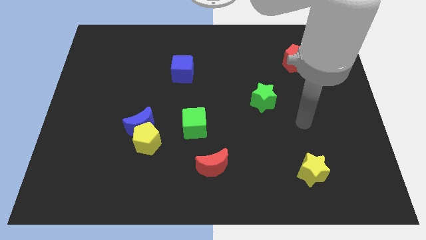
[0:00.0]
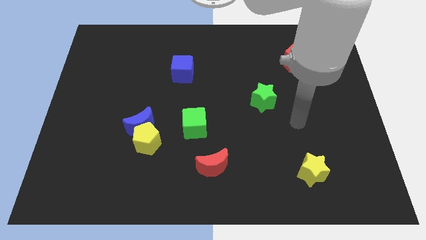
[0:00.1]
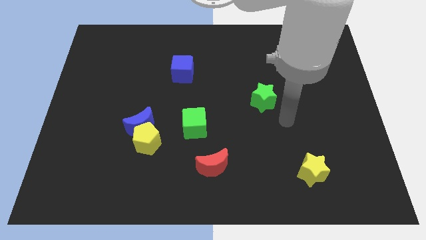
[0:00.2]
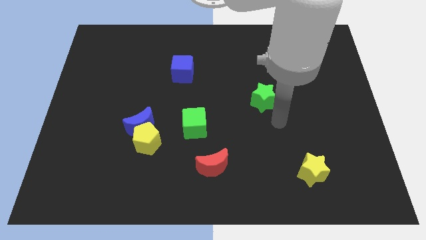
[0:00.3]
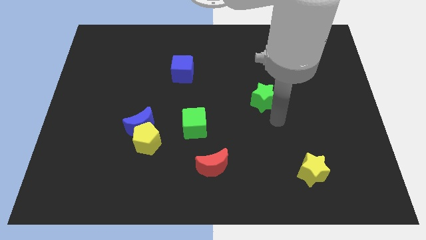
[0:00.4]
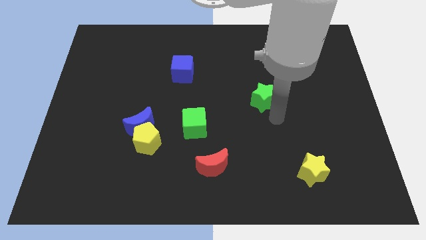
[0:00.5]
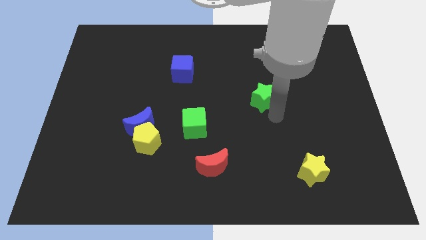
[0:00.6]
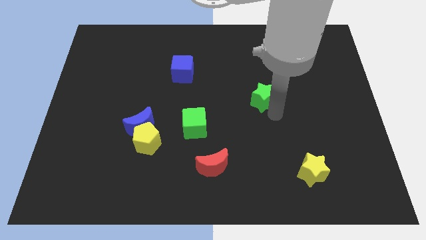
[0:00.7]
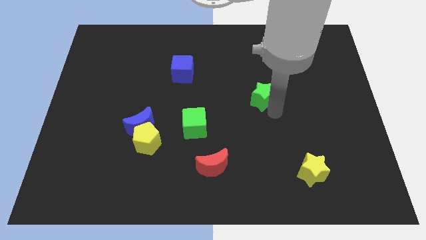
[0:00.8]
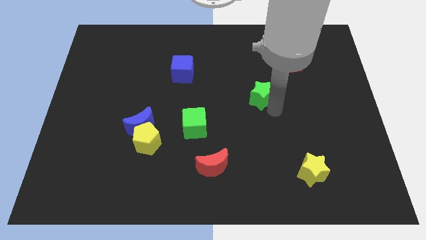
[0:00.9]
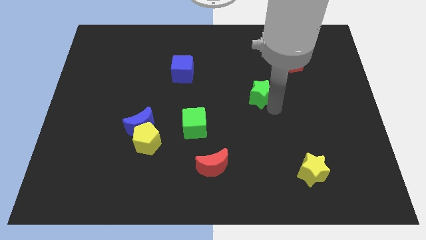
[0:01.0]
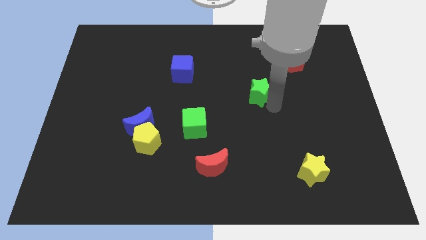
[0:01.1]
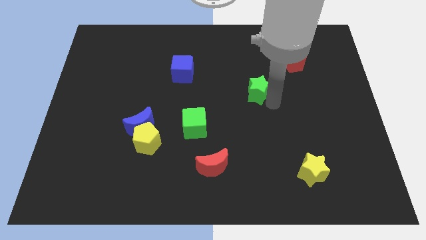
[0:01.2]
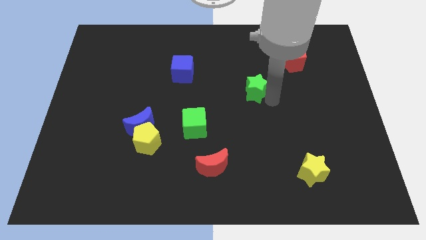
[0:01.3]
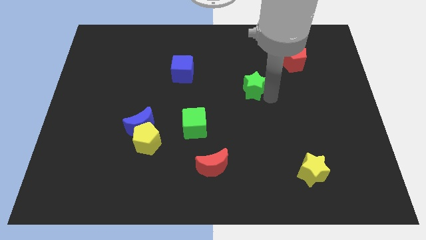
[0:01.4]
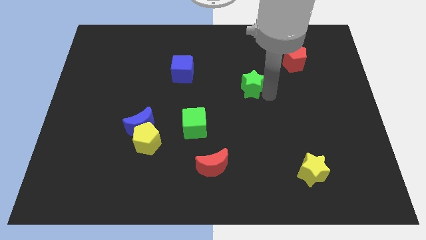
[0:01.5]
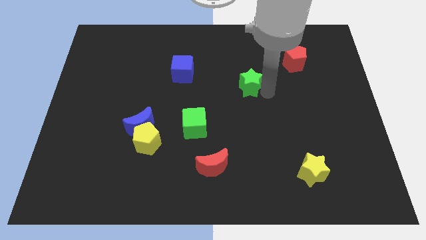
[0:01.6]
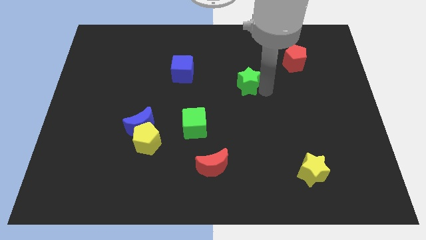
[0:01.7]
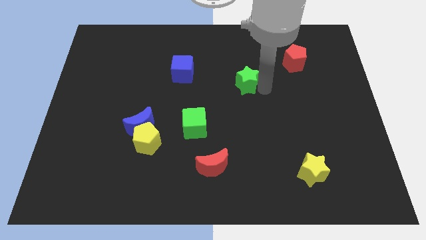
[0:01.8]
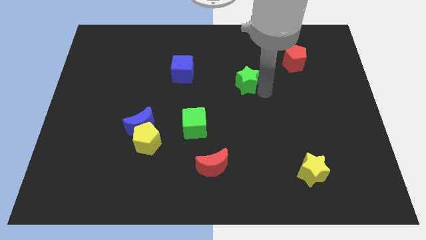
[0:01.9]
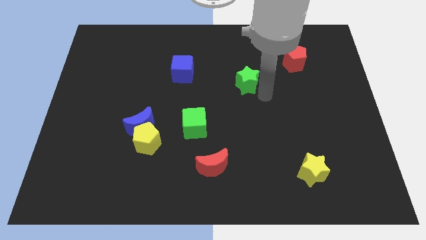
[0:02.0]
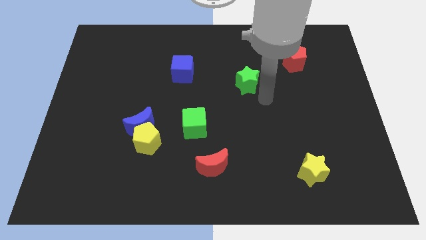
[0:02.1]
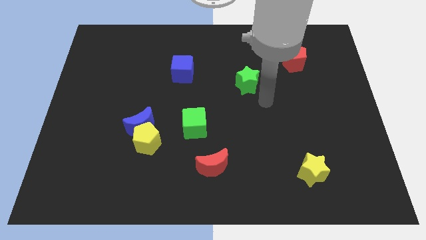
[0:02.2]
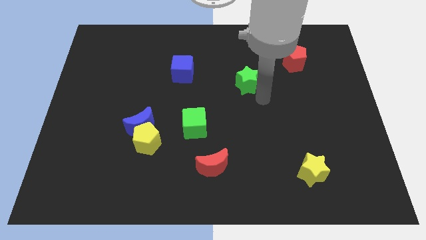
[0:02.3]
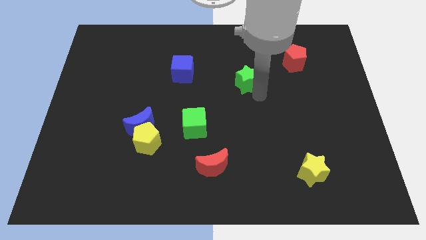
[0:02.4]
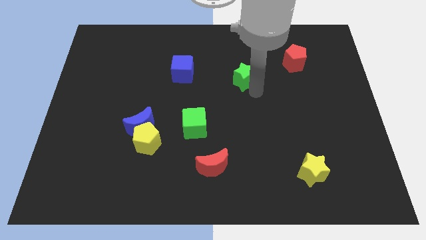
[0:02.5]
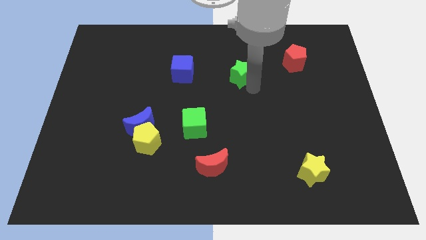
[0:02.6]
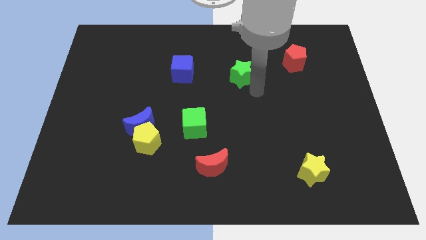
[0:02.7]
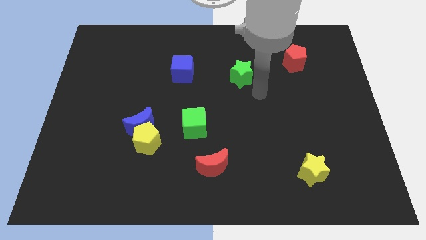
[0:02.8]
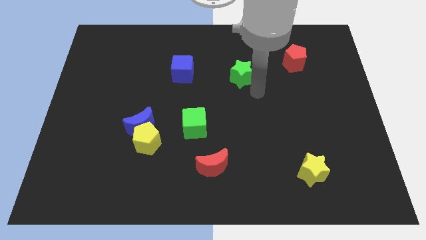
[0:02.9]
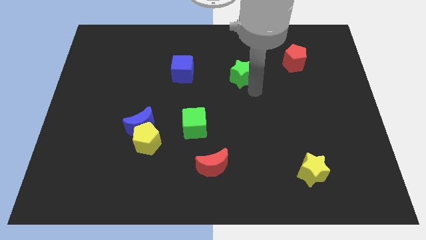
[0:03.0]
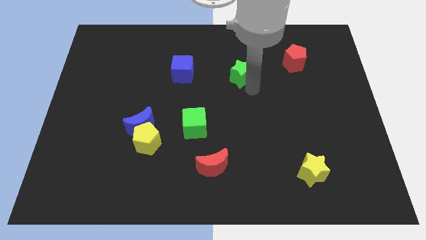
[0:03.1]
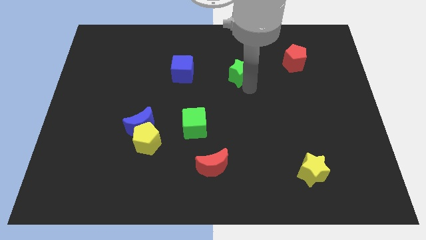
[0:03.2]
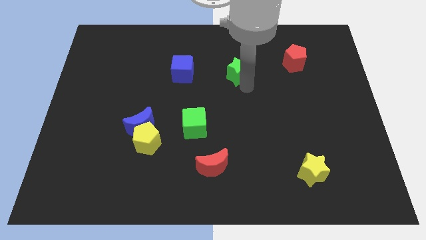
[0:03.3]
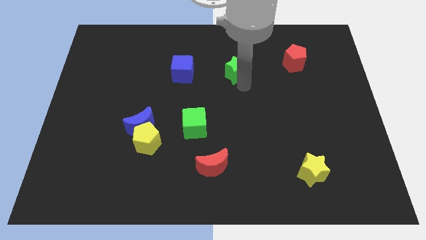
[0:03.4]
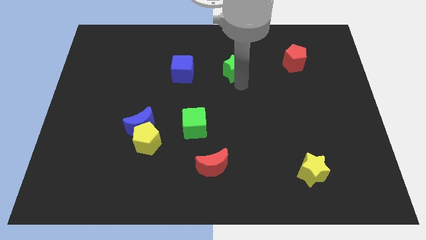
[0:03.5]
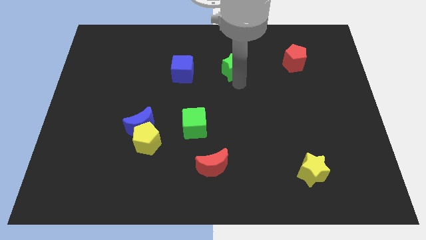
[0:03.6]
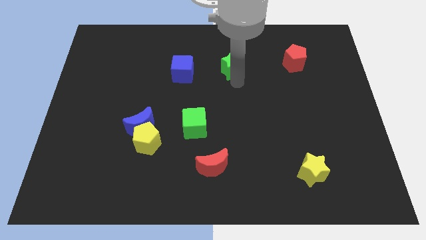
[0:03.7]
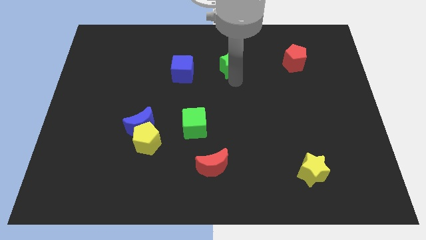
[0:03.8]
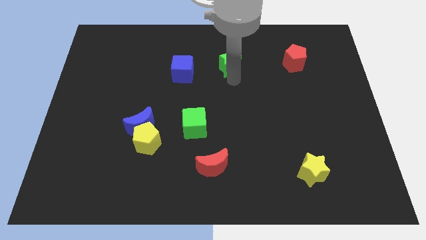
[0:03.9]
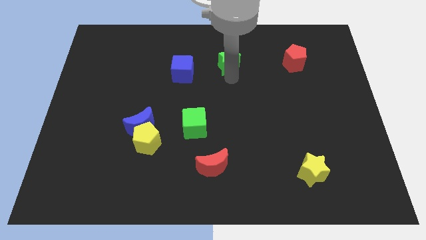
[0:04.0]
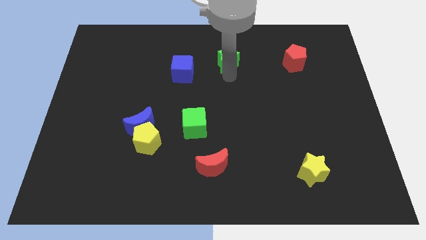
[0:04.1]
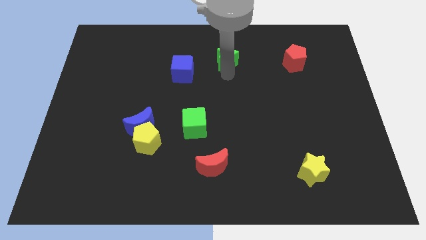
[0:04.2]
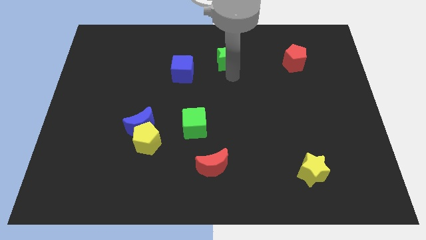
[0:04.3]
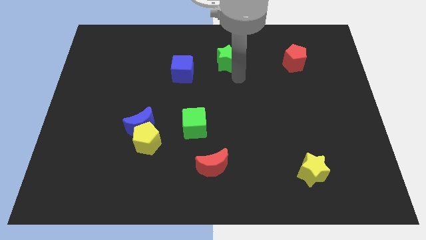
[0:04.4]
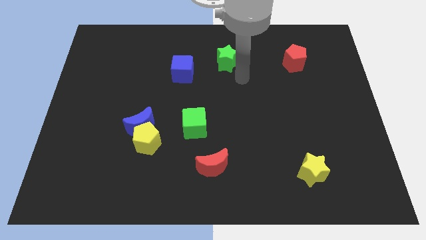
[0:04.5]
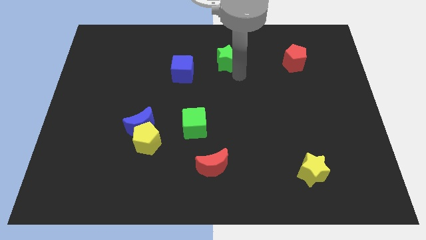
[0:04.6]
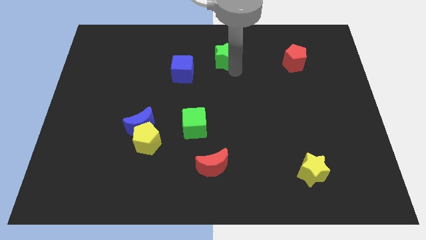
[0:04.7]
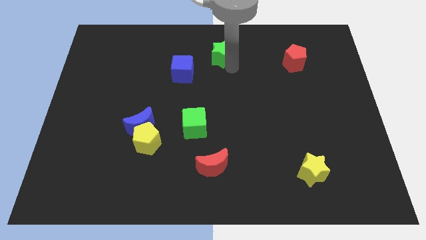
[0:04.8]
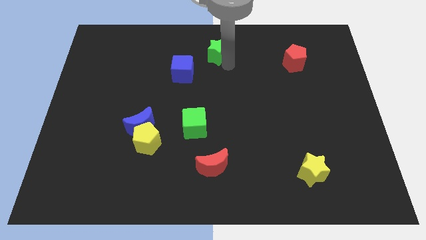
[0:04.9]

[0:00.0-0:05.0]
move the green star to the top

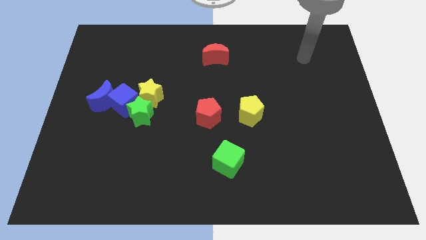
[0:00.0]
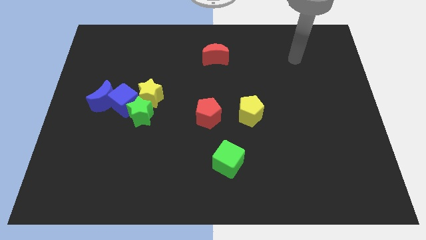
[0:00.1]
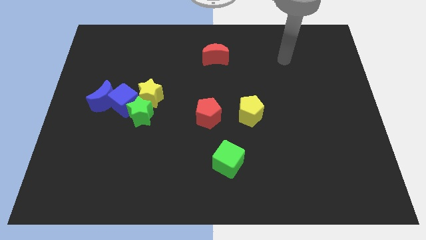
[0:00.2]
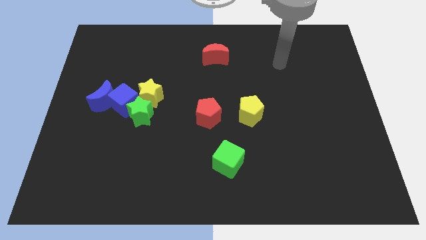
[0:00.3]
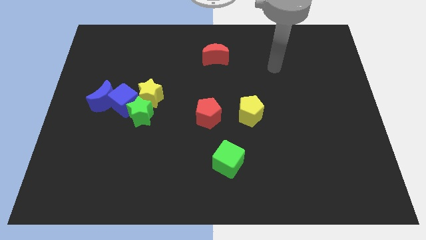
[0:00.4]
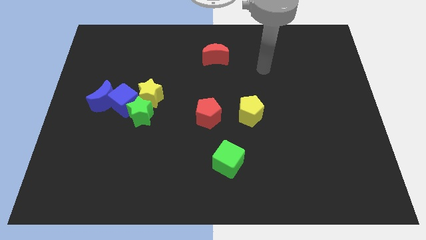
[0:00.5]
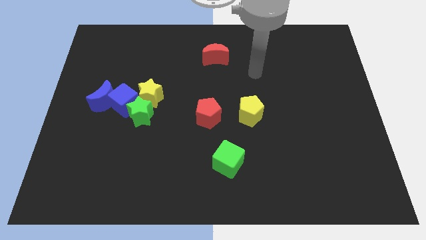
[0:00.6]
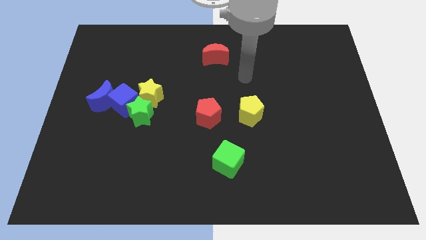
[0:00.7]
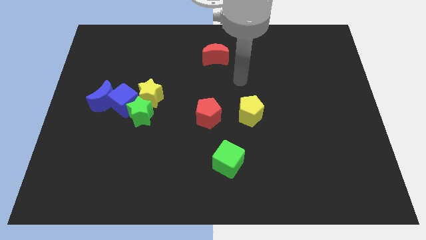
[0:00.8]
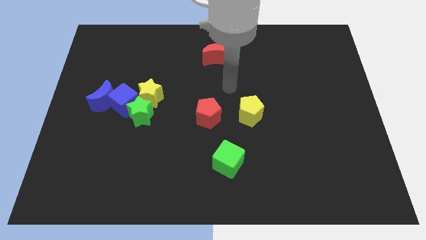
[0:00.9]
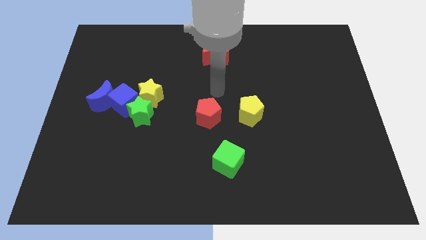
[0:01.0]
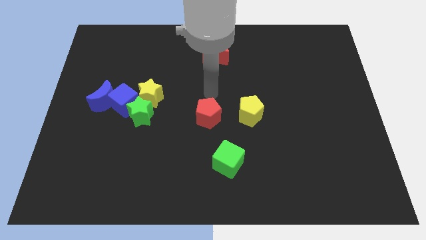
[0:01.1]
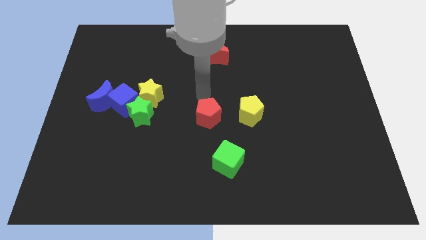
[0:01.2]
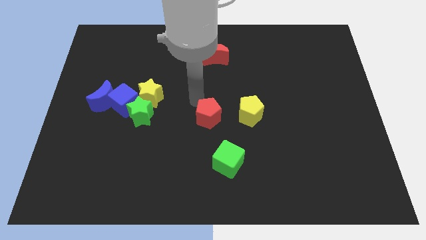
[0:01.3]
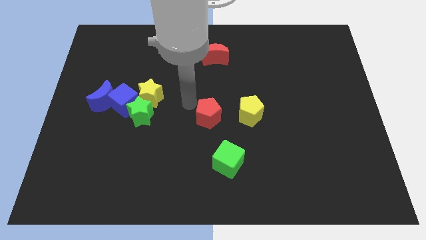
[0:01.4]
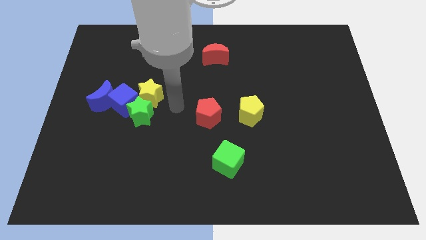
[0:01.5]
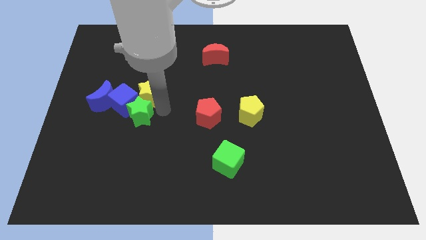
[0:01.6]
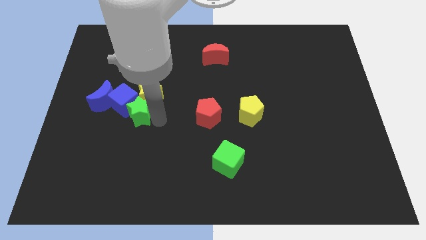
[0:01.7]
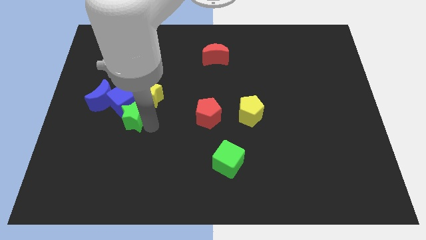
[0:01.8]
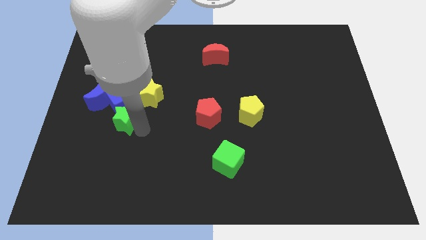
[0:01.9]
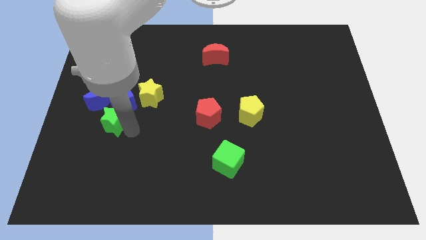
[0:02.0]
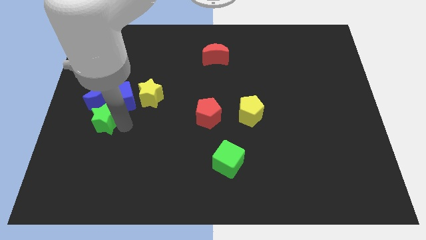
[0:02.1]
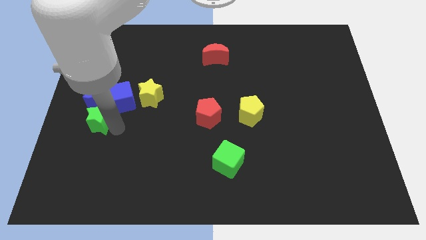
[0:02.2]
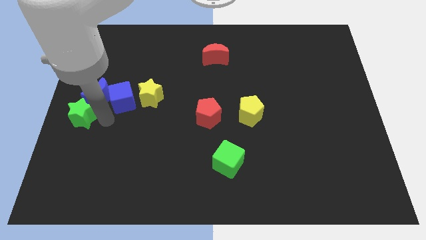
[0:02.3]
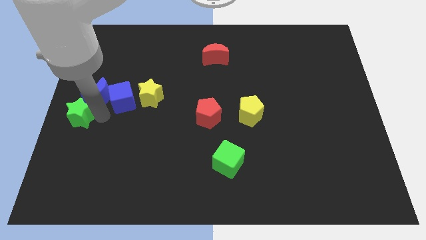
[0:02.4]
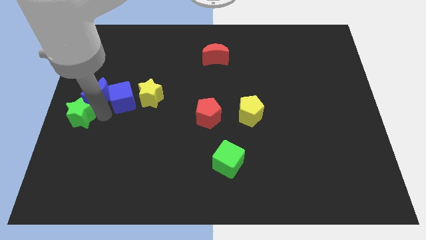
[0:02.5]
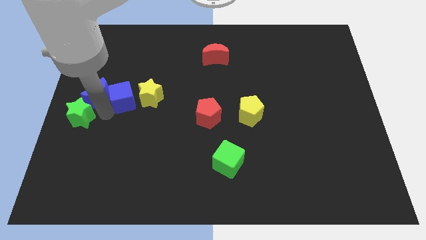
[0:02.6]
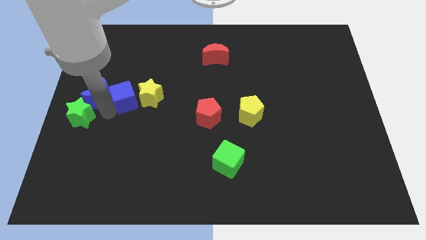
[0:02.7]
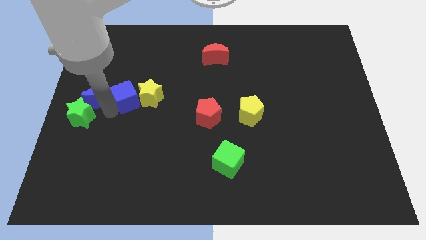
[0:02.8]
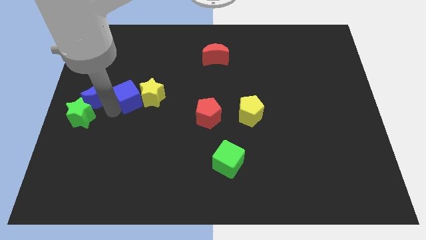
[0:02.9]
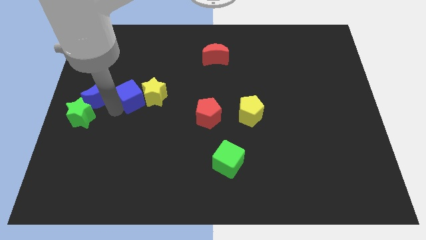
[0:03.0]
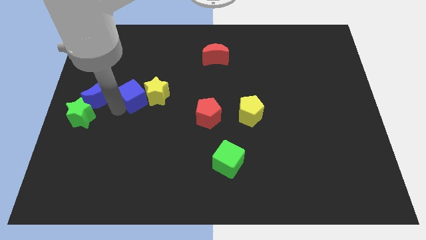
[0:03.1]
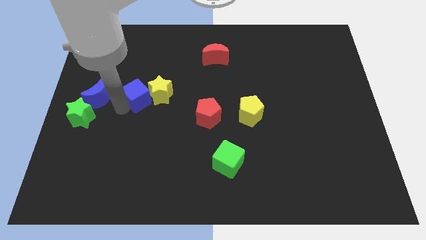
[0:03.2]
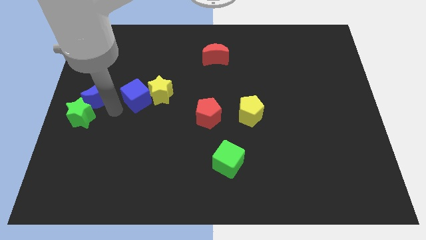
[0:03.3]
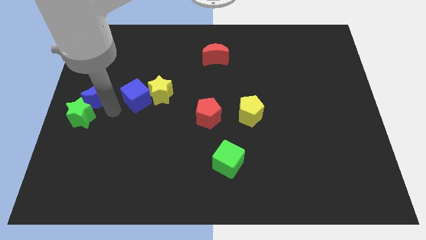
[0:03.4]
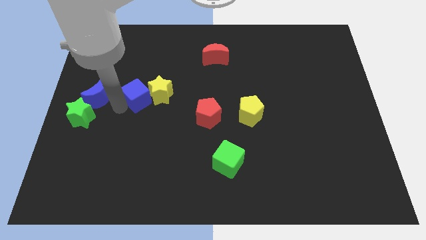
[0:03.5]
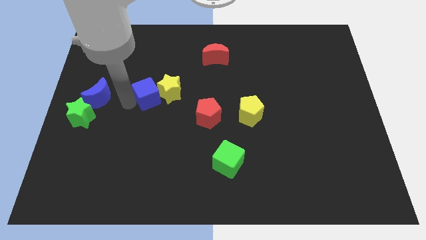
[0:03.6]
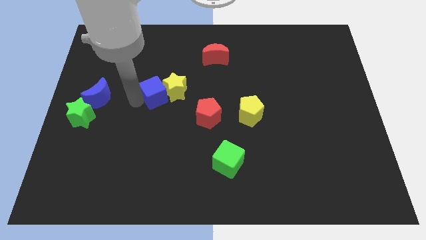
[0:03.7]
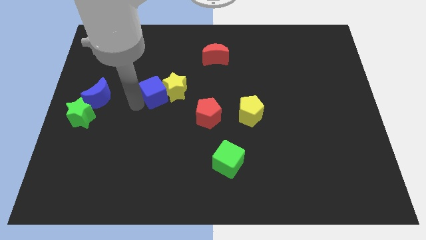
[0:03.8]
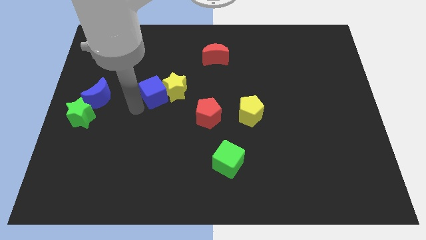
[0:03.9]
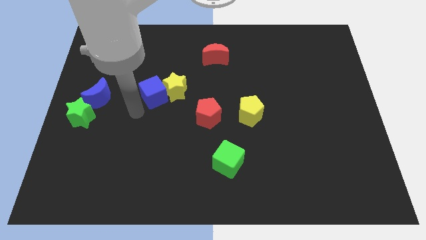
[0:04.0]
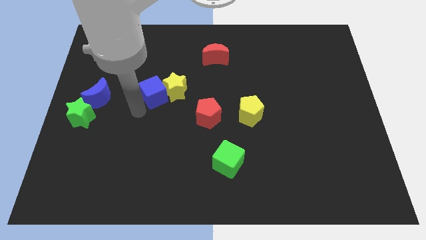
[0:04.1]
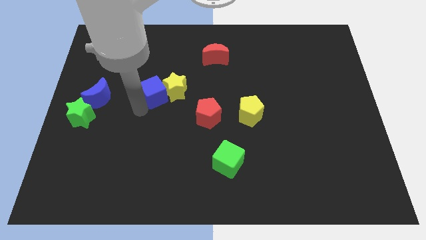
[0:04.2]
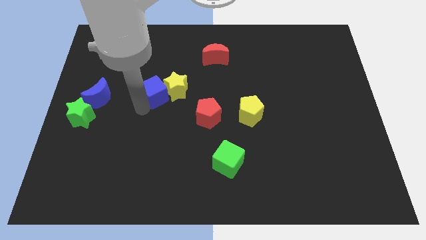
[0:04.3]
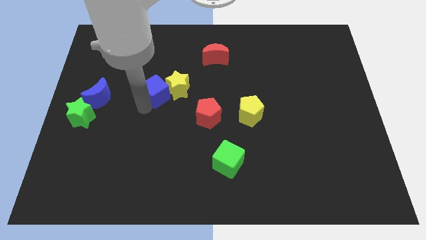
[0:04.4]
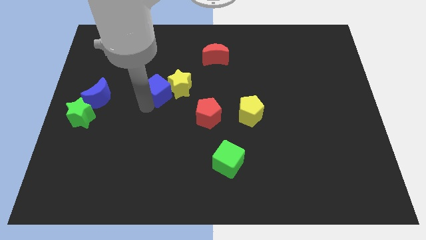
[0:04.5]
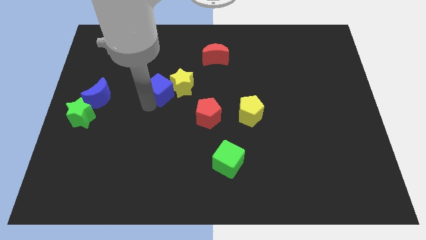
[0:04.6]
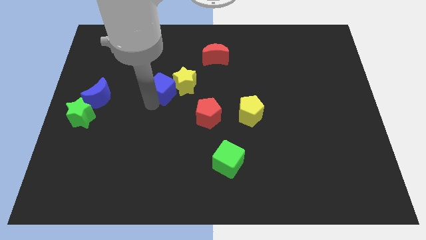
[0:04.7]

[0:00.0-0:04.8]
push the blue cube to the center
